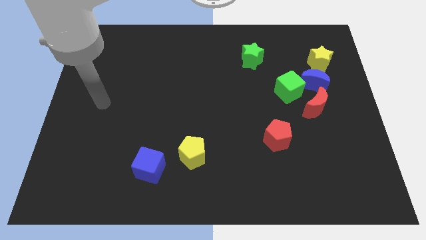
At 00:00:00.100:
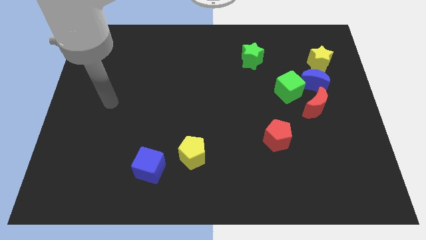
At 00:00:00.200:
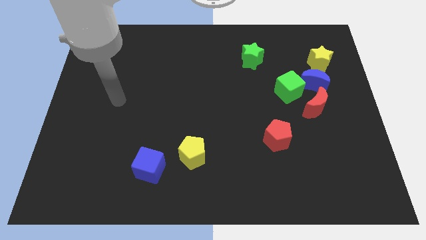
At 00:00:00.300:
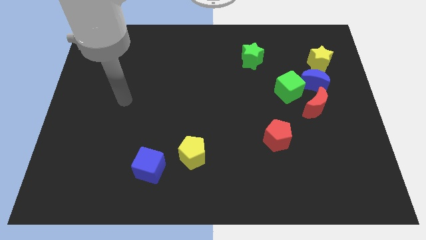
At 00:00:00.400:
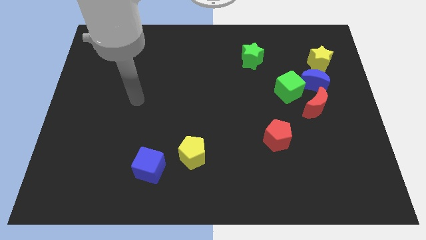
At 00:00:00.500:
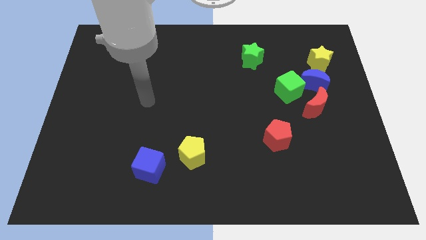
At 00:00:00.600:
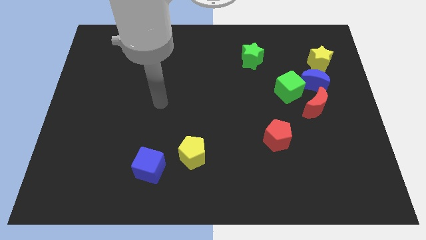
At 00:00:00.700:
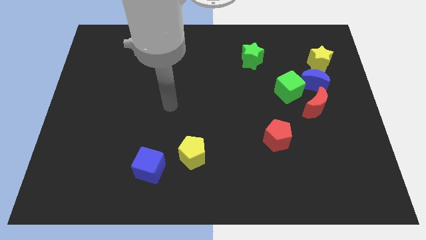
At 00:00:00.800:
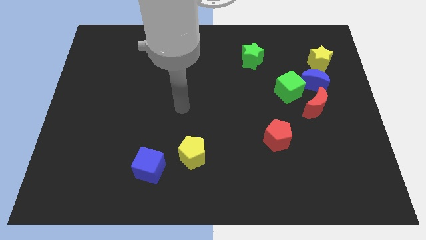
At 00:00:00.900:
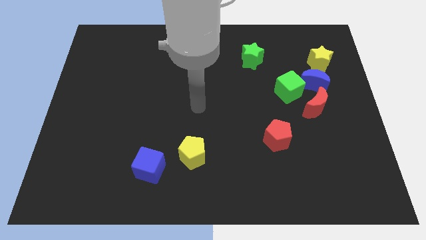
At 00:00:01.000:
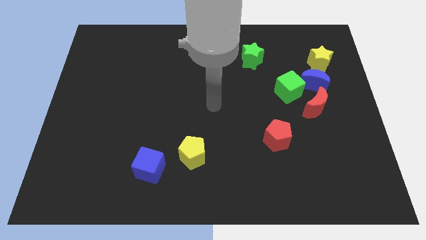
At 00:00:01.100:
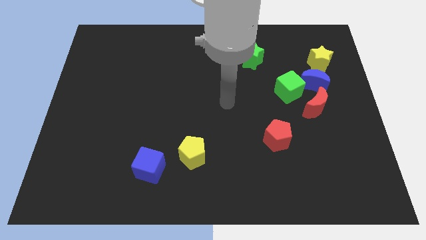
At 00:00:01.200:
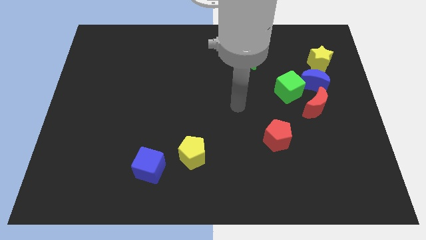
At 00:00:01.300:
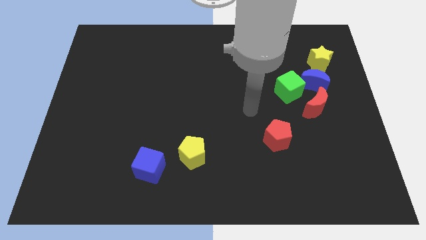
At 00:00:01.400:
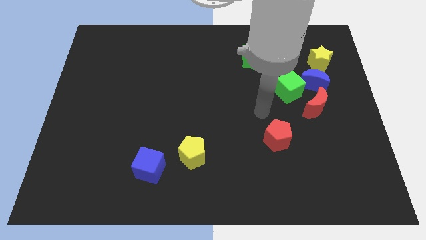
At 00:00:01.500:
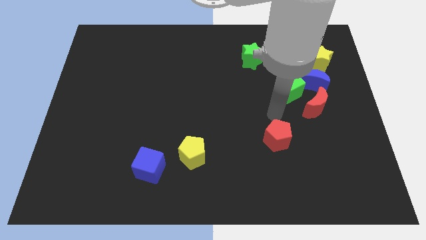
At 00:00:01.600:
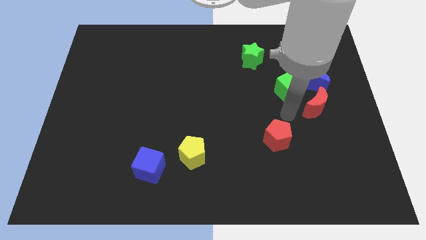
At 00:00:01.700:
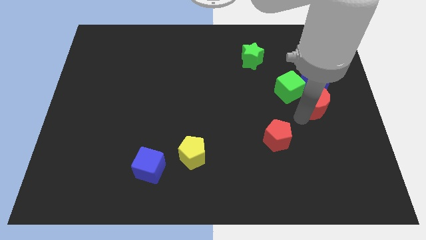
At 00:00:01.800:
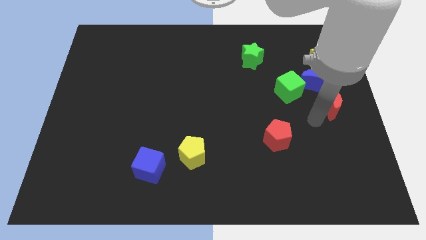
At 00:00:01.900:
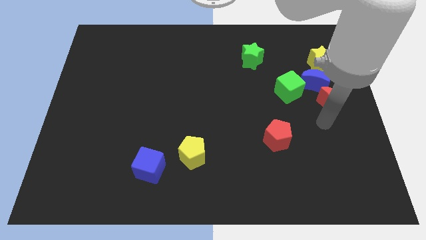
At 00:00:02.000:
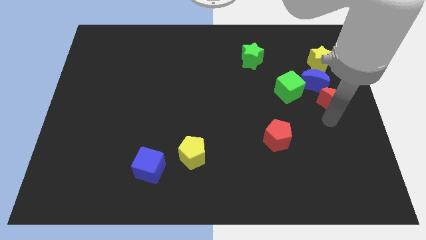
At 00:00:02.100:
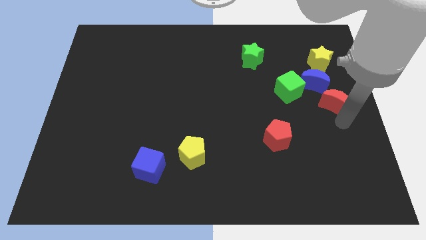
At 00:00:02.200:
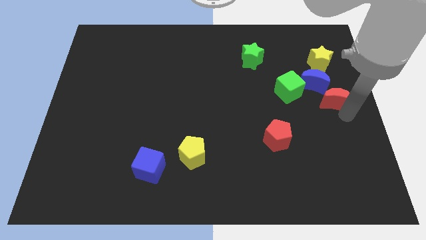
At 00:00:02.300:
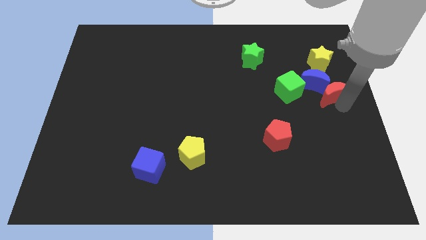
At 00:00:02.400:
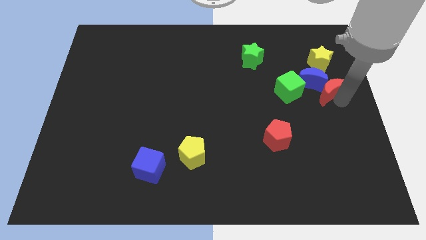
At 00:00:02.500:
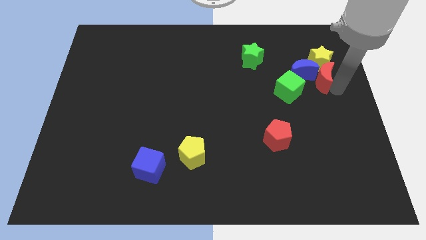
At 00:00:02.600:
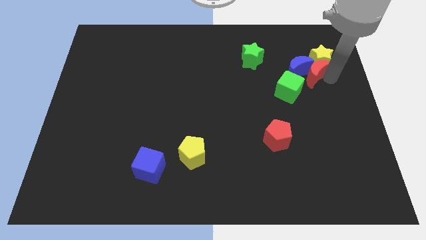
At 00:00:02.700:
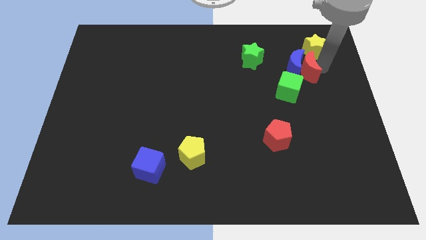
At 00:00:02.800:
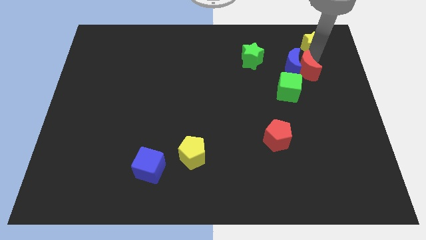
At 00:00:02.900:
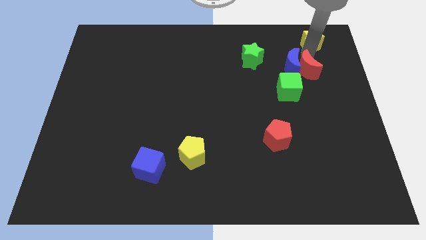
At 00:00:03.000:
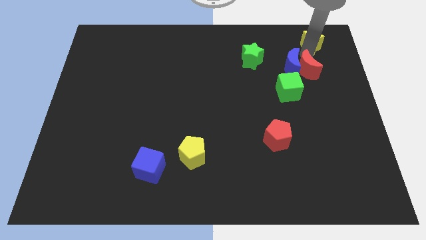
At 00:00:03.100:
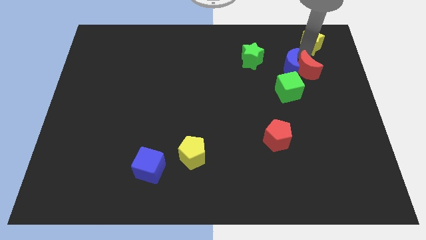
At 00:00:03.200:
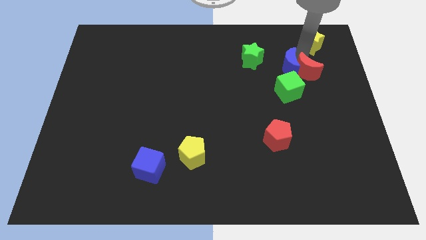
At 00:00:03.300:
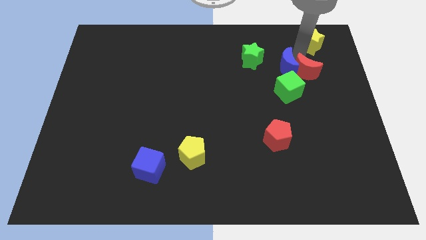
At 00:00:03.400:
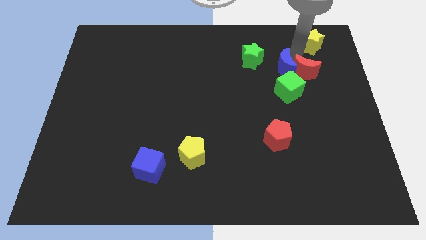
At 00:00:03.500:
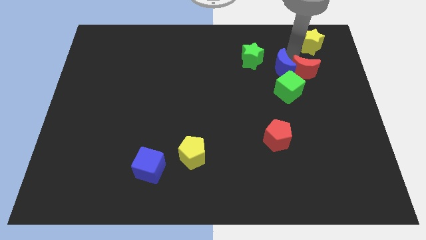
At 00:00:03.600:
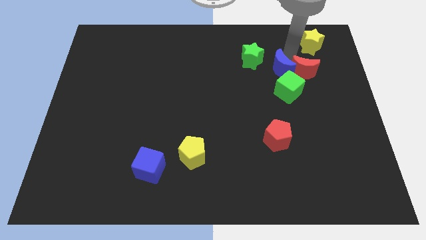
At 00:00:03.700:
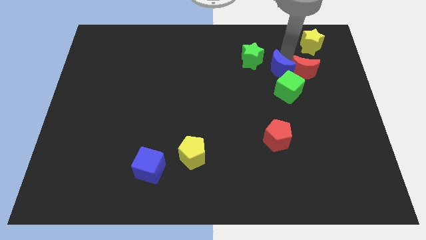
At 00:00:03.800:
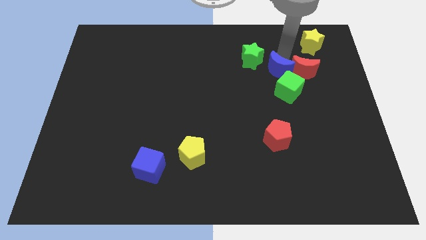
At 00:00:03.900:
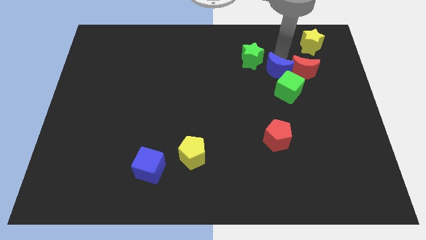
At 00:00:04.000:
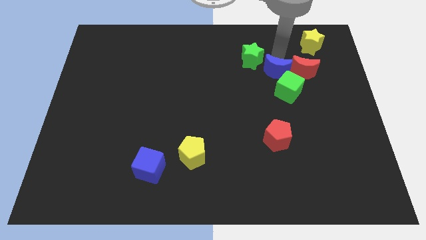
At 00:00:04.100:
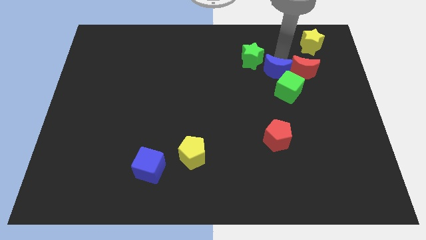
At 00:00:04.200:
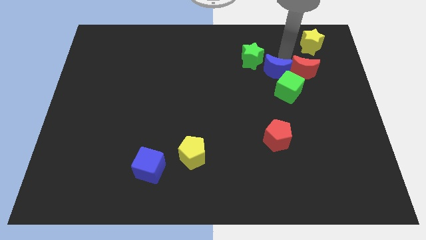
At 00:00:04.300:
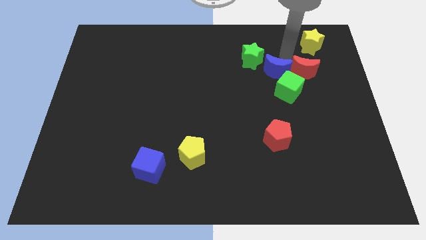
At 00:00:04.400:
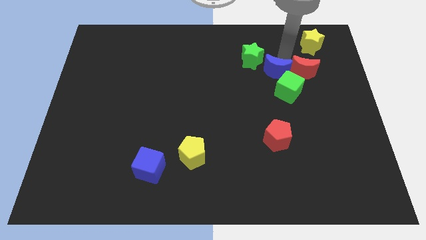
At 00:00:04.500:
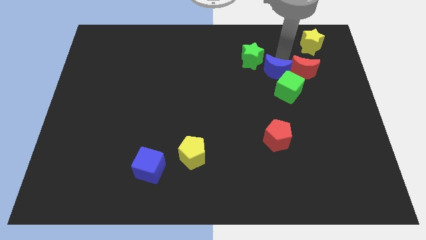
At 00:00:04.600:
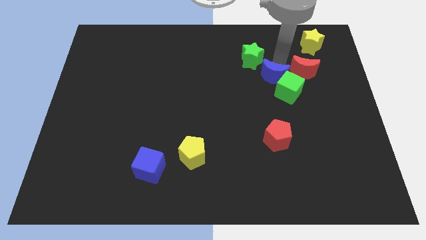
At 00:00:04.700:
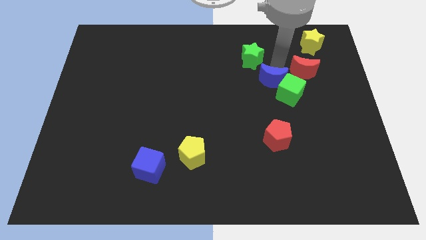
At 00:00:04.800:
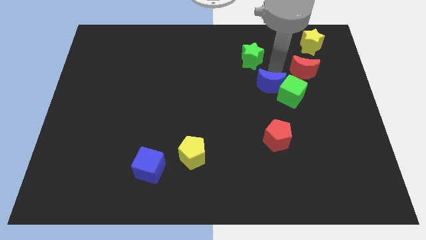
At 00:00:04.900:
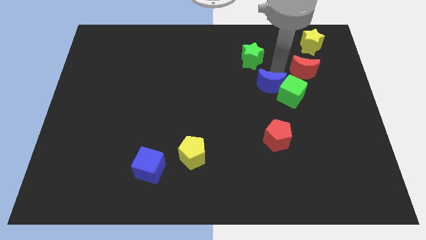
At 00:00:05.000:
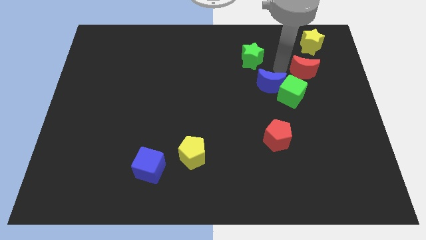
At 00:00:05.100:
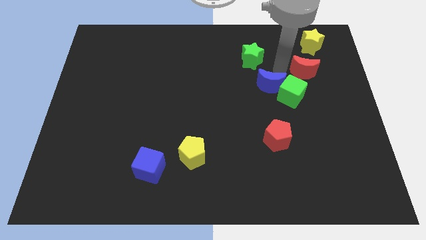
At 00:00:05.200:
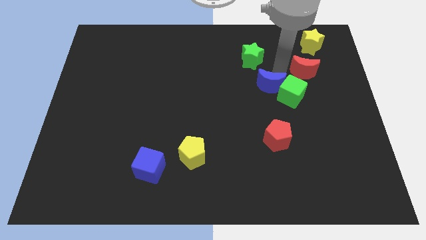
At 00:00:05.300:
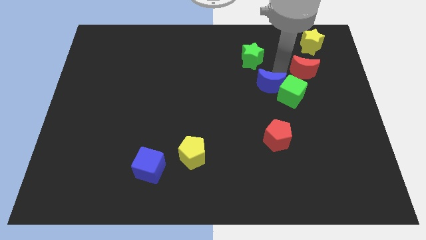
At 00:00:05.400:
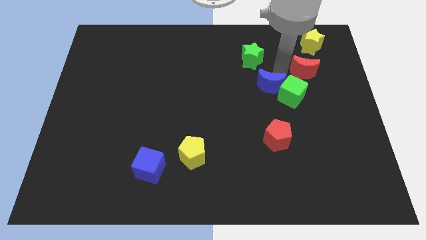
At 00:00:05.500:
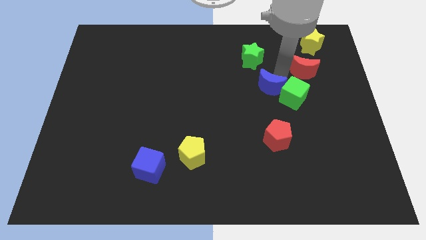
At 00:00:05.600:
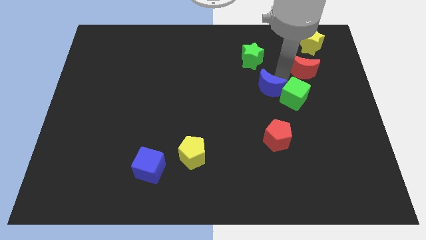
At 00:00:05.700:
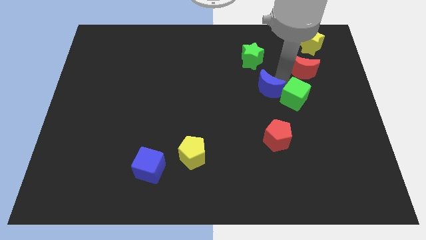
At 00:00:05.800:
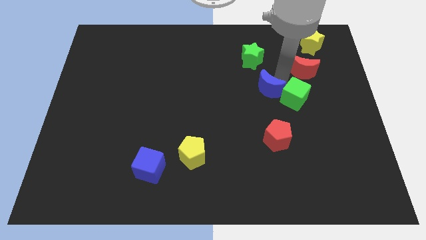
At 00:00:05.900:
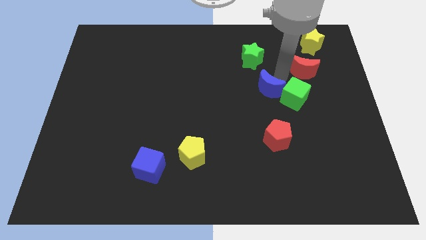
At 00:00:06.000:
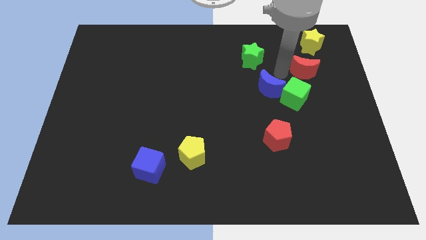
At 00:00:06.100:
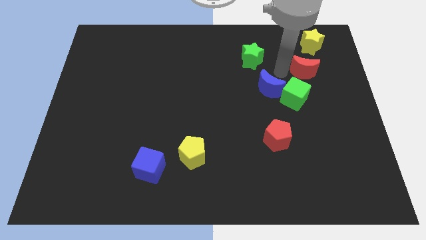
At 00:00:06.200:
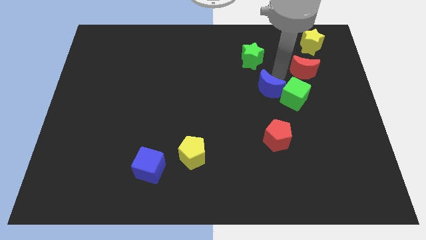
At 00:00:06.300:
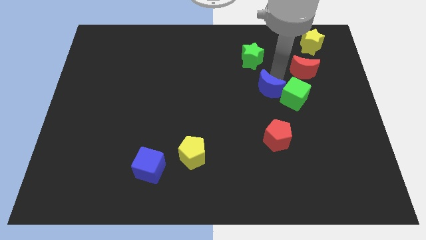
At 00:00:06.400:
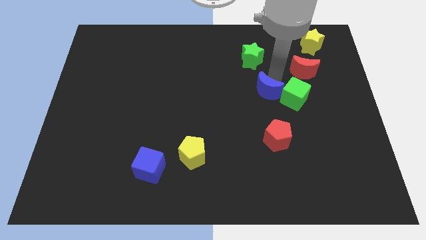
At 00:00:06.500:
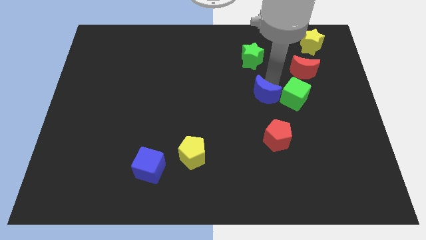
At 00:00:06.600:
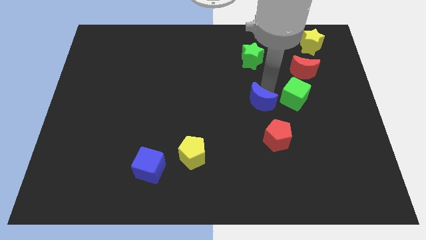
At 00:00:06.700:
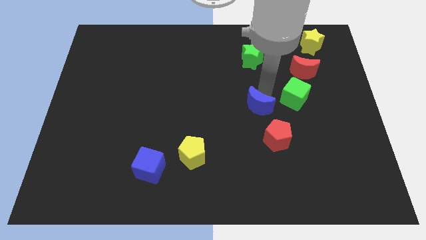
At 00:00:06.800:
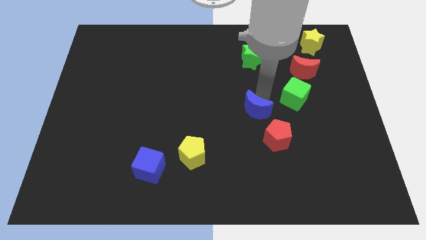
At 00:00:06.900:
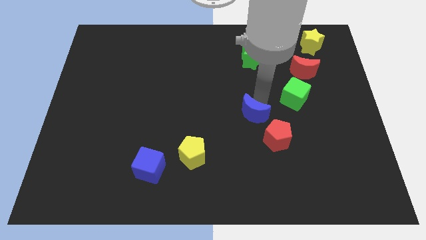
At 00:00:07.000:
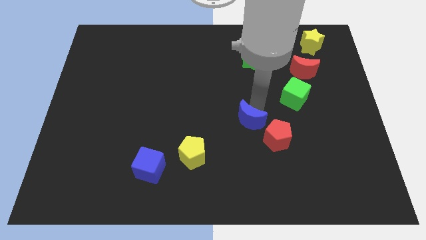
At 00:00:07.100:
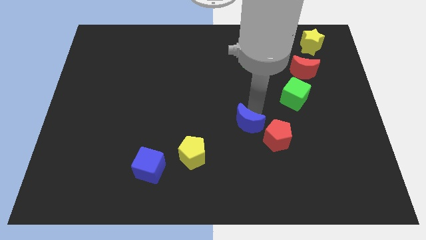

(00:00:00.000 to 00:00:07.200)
move the blue moon down and to the left diagonally

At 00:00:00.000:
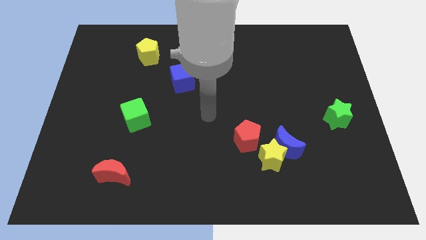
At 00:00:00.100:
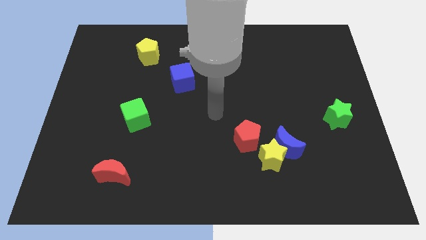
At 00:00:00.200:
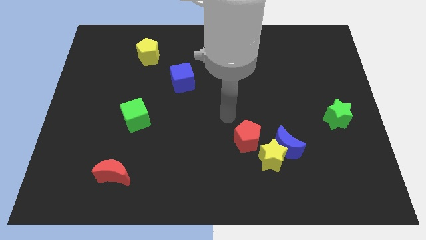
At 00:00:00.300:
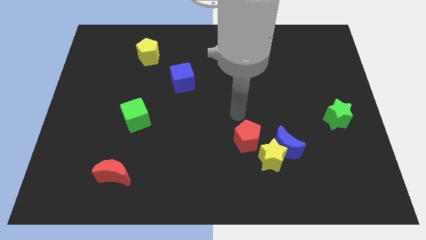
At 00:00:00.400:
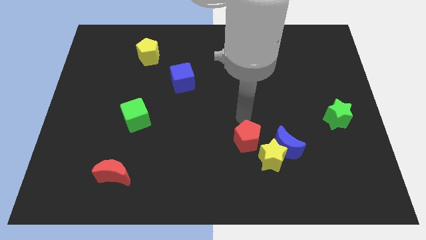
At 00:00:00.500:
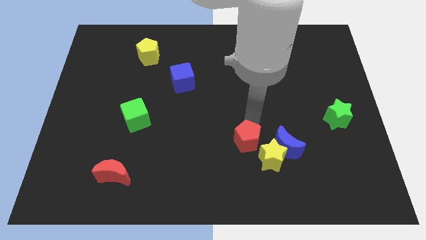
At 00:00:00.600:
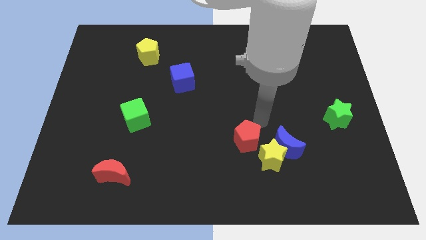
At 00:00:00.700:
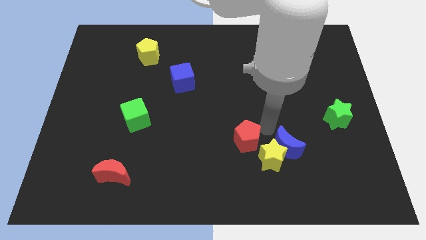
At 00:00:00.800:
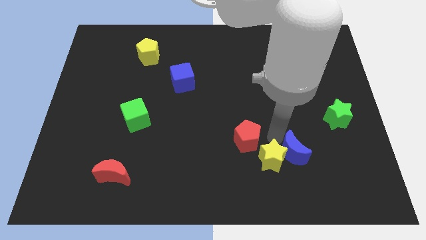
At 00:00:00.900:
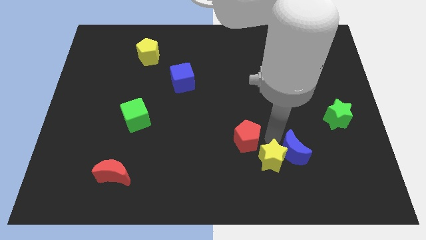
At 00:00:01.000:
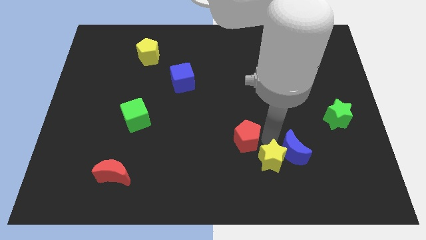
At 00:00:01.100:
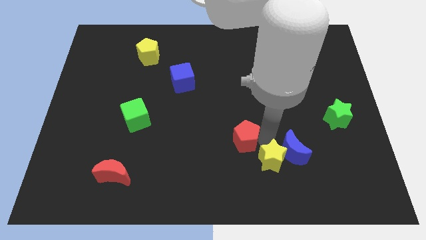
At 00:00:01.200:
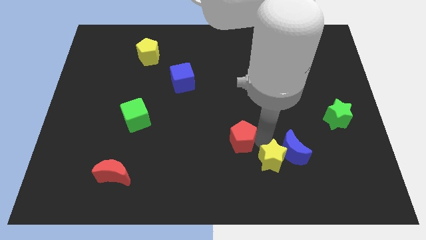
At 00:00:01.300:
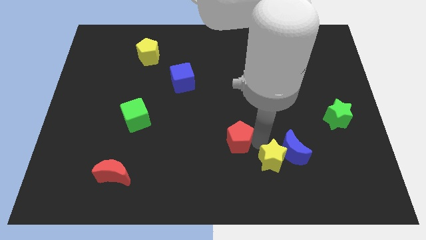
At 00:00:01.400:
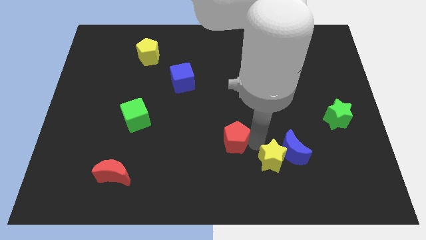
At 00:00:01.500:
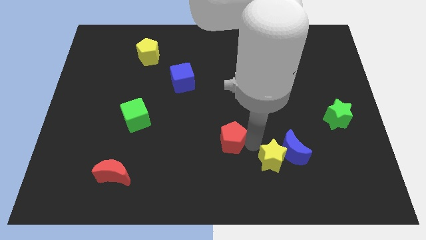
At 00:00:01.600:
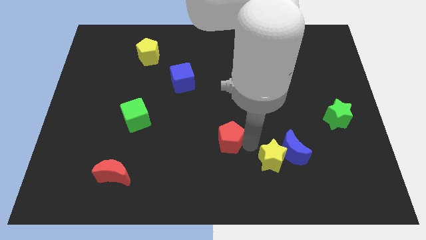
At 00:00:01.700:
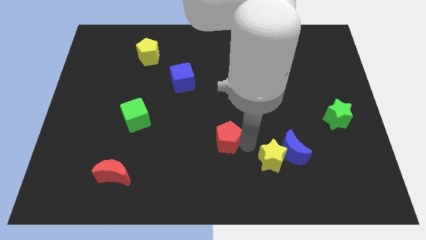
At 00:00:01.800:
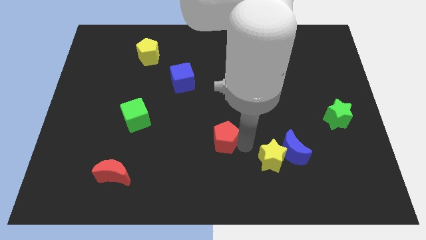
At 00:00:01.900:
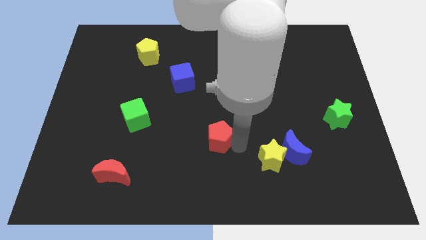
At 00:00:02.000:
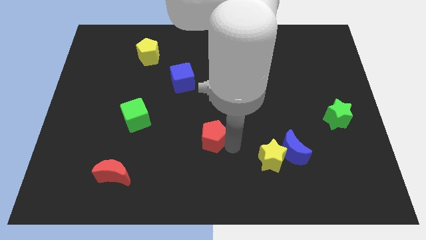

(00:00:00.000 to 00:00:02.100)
move the red pentagon left a bit
